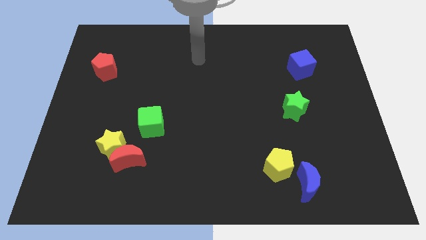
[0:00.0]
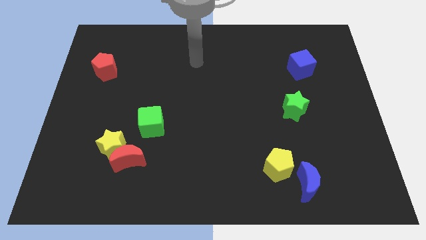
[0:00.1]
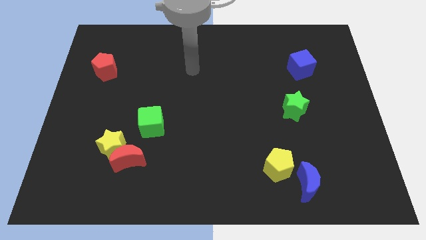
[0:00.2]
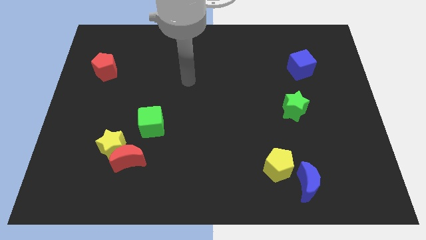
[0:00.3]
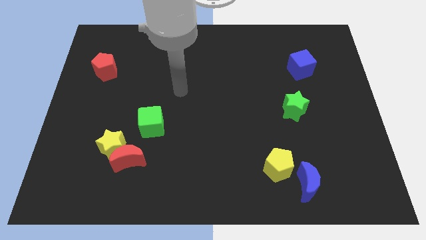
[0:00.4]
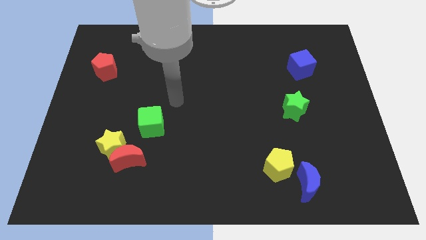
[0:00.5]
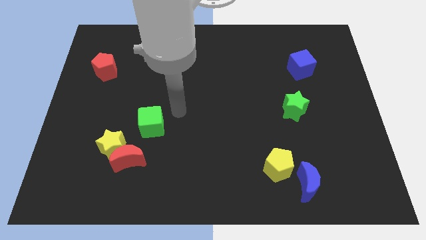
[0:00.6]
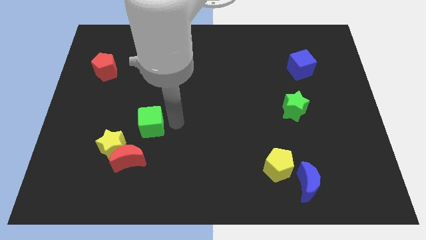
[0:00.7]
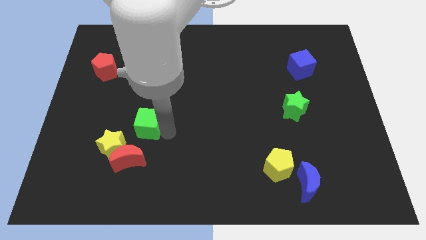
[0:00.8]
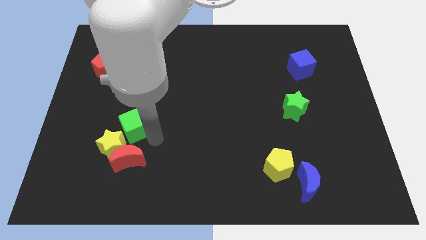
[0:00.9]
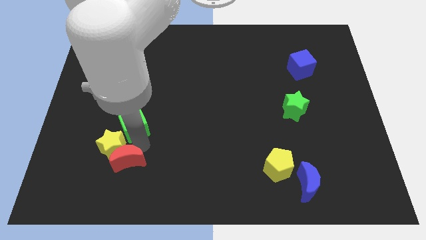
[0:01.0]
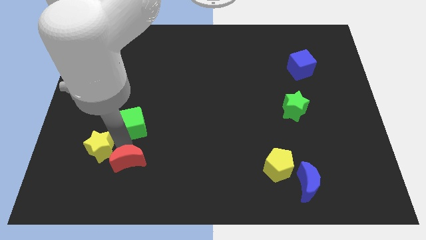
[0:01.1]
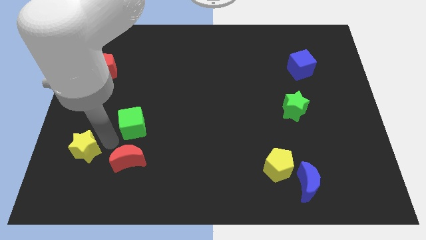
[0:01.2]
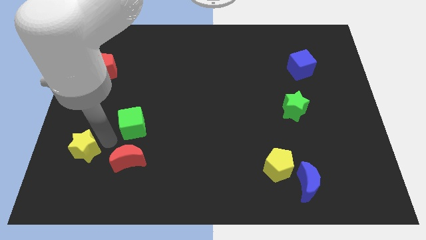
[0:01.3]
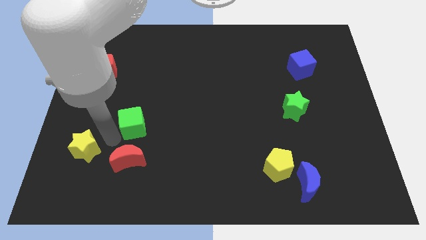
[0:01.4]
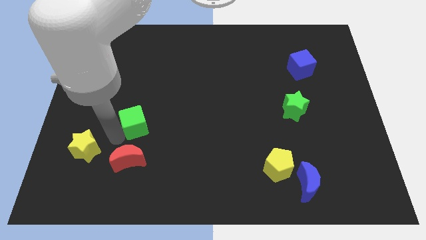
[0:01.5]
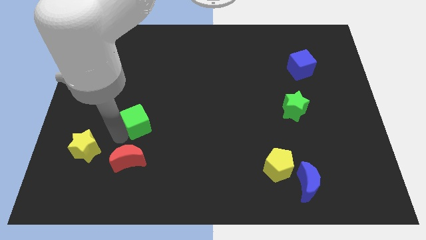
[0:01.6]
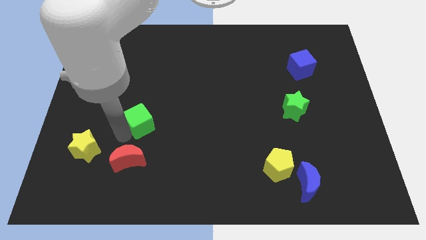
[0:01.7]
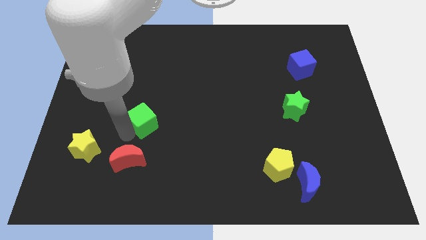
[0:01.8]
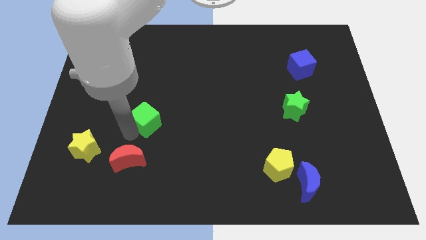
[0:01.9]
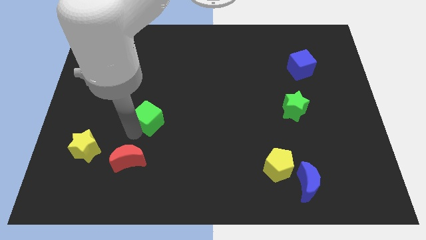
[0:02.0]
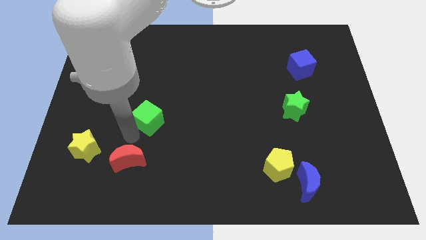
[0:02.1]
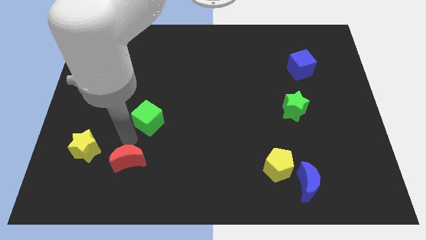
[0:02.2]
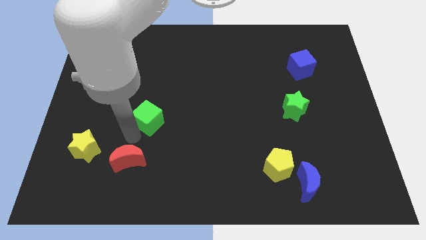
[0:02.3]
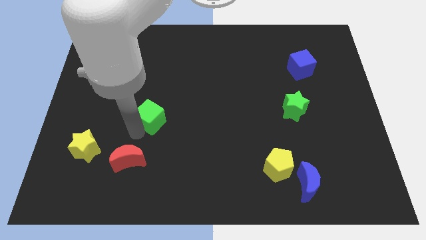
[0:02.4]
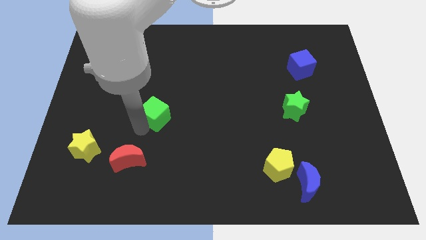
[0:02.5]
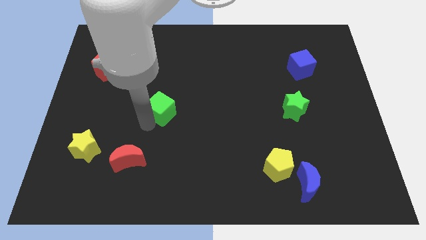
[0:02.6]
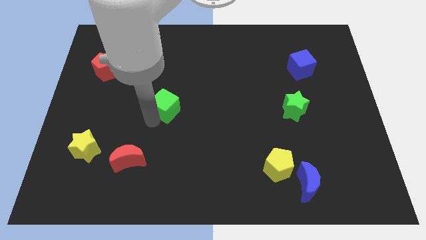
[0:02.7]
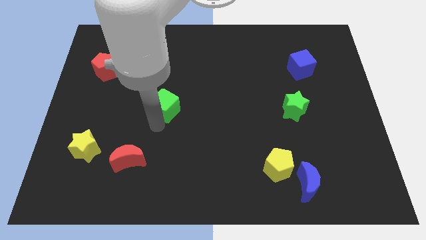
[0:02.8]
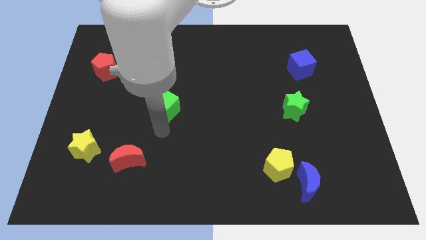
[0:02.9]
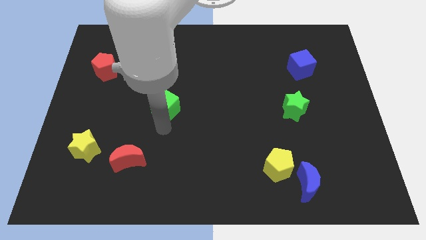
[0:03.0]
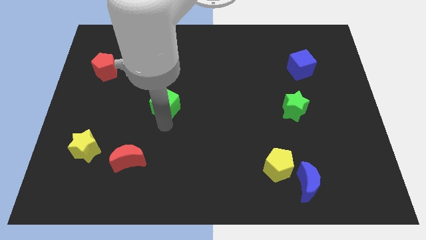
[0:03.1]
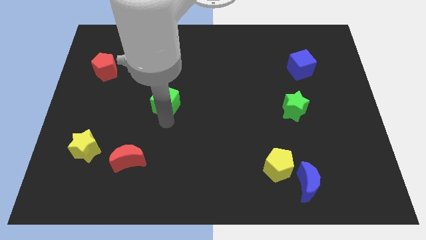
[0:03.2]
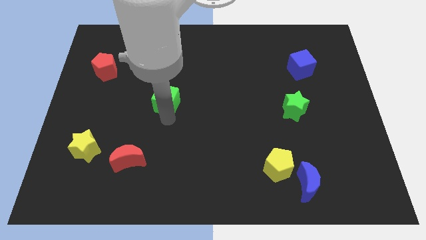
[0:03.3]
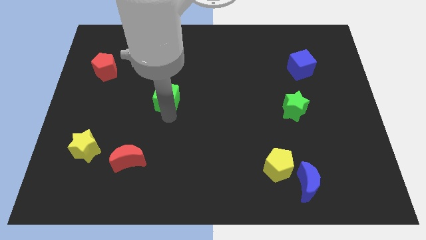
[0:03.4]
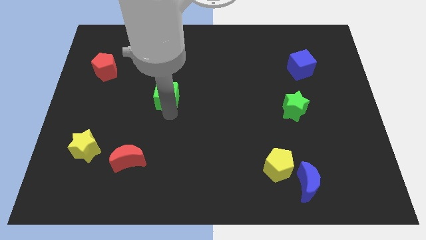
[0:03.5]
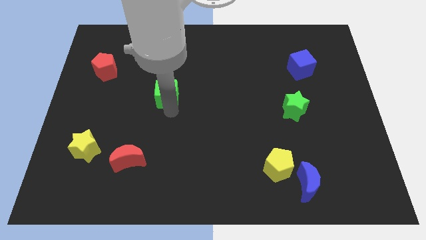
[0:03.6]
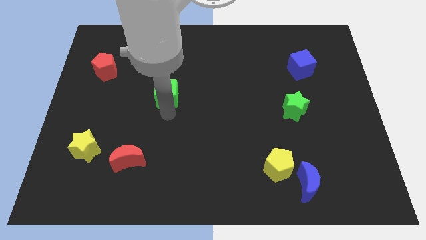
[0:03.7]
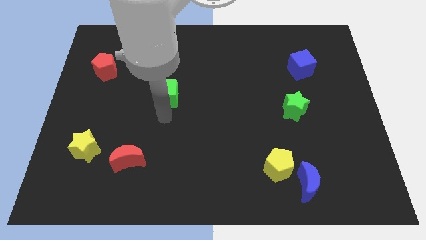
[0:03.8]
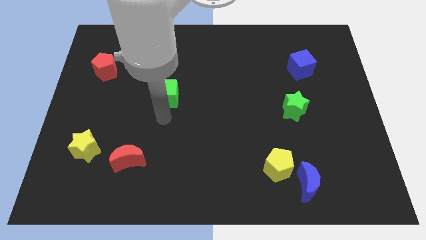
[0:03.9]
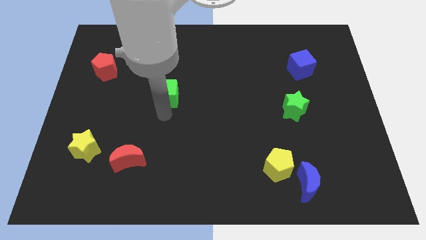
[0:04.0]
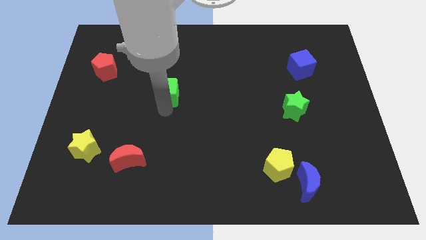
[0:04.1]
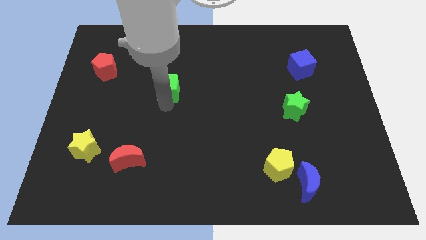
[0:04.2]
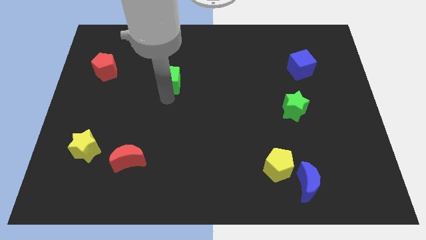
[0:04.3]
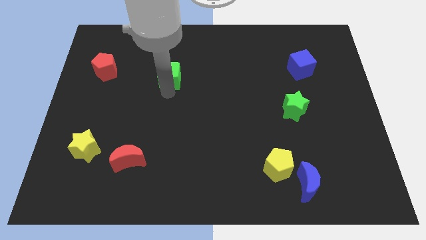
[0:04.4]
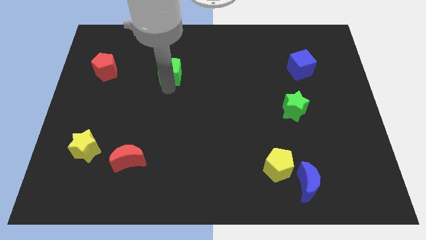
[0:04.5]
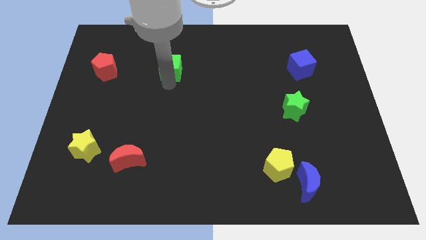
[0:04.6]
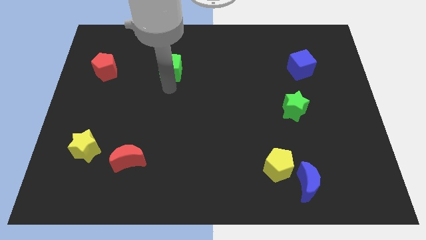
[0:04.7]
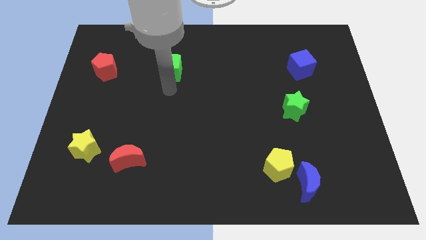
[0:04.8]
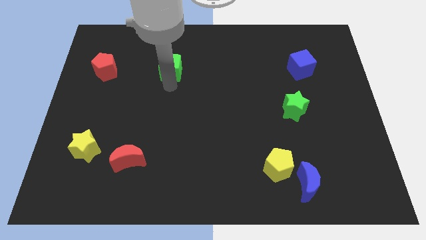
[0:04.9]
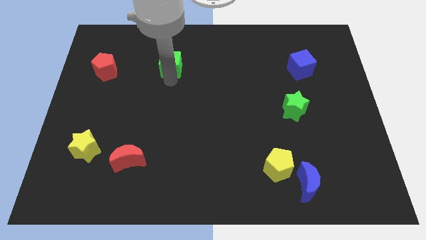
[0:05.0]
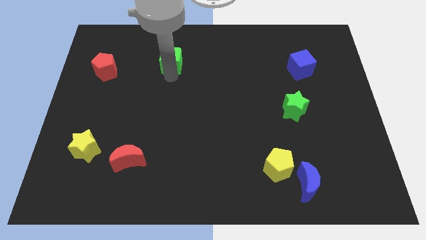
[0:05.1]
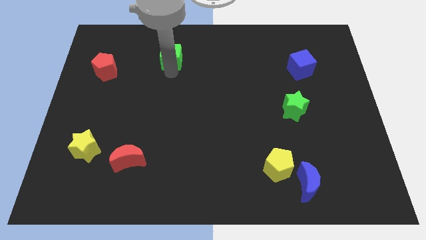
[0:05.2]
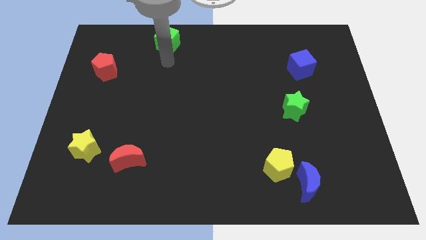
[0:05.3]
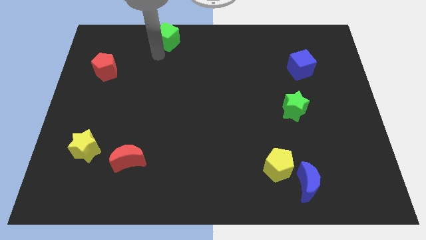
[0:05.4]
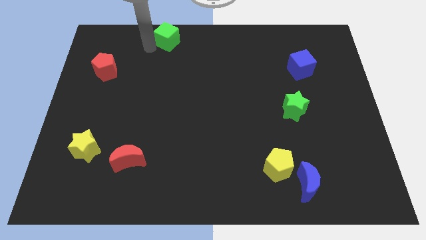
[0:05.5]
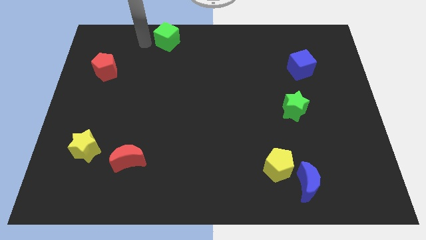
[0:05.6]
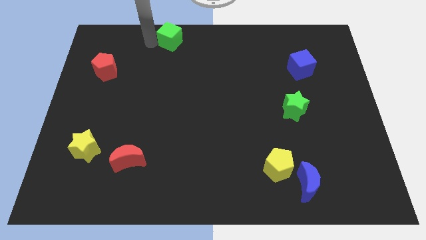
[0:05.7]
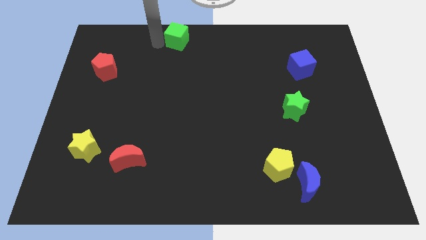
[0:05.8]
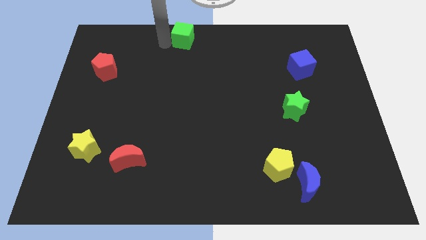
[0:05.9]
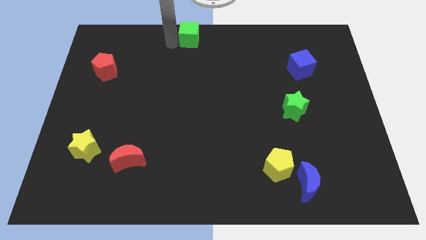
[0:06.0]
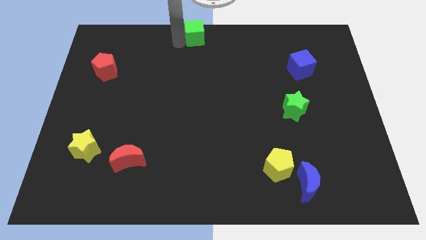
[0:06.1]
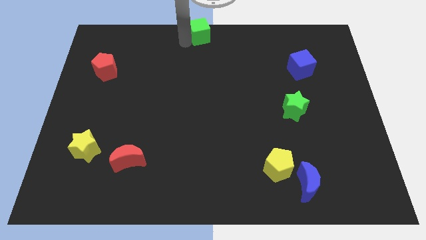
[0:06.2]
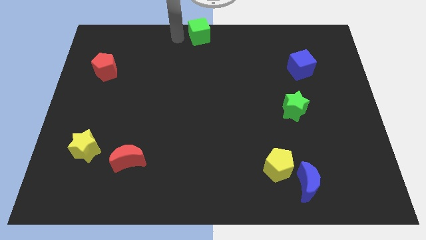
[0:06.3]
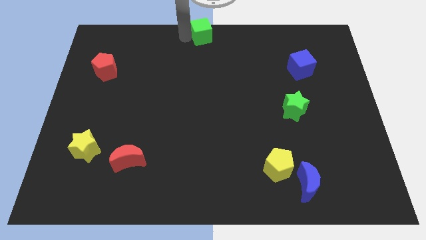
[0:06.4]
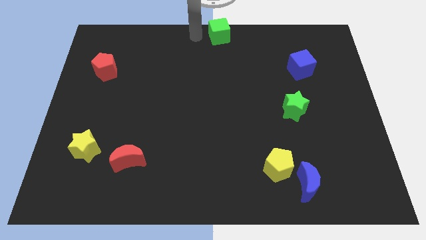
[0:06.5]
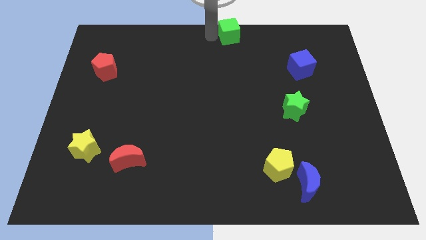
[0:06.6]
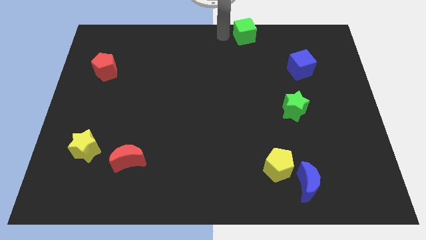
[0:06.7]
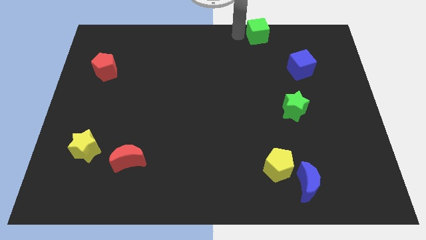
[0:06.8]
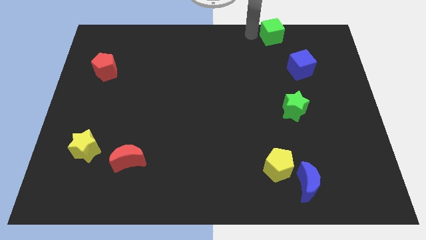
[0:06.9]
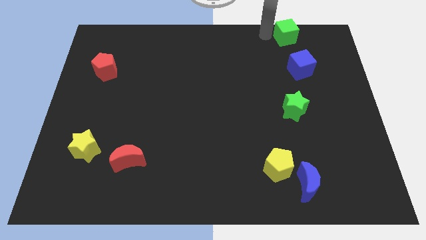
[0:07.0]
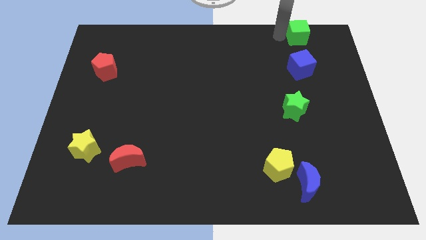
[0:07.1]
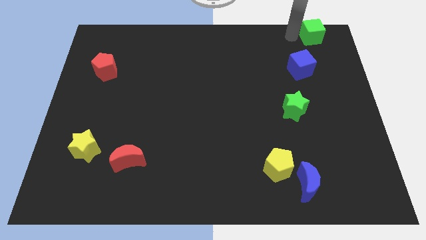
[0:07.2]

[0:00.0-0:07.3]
move the green cube to the top right of the board

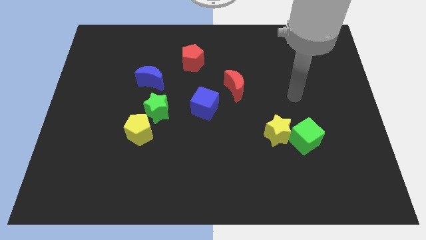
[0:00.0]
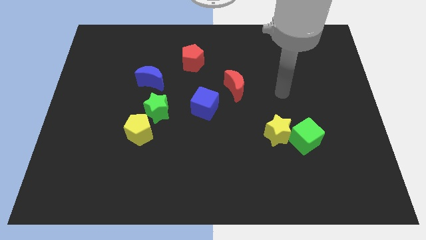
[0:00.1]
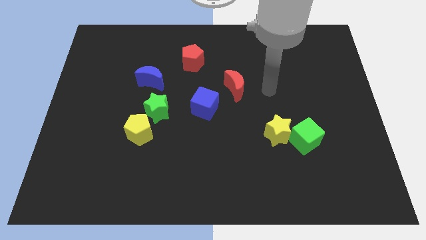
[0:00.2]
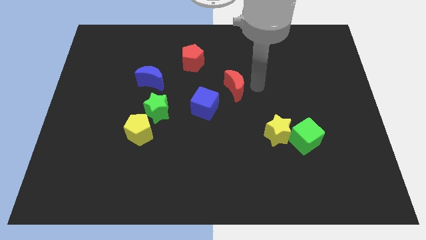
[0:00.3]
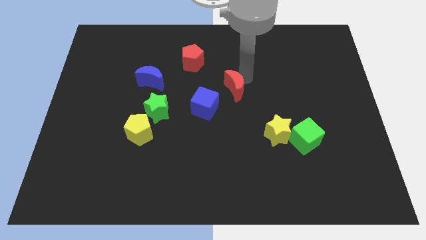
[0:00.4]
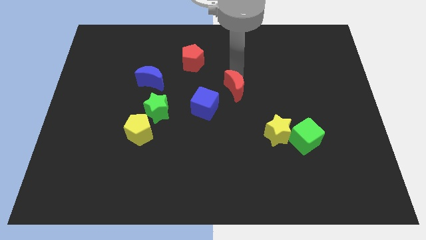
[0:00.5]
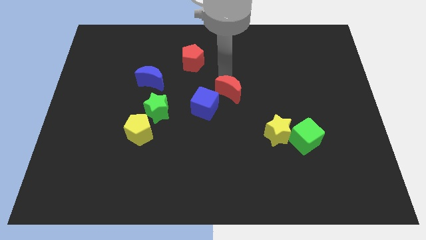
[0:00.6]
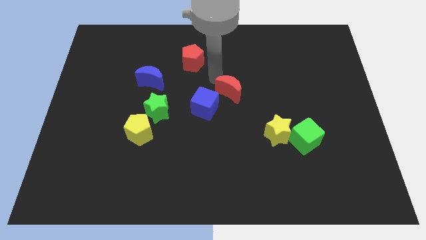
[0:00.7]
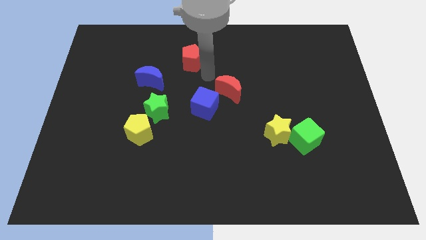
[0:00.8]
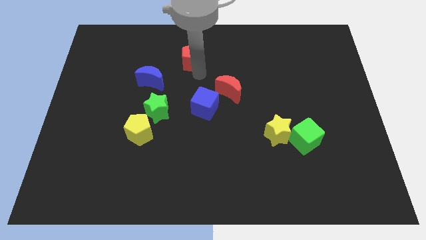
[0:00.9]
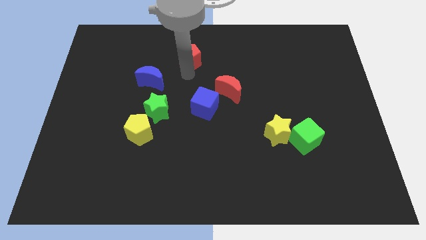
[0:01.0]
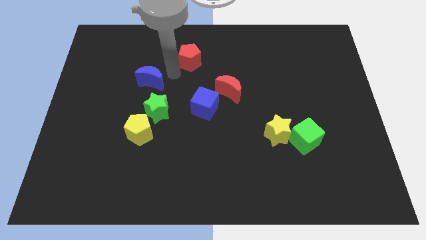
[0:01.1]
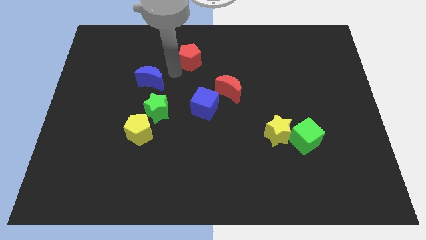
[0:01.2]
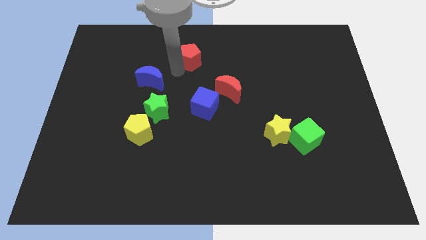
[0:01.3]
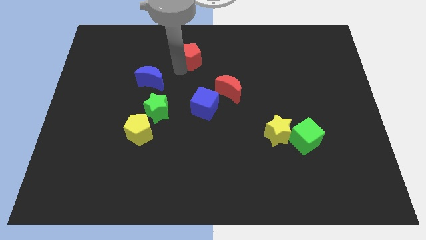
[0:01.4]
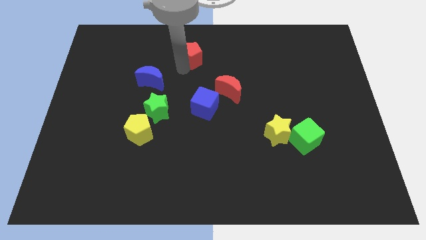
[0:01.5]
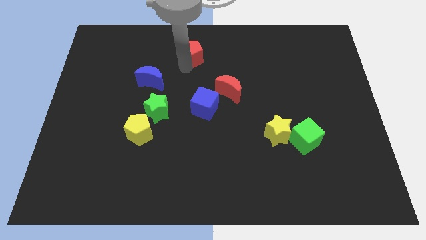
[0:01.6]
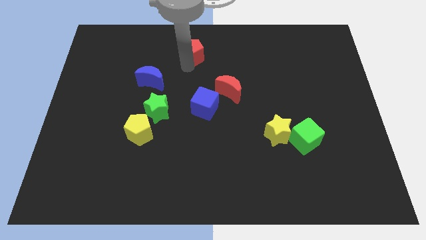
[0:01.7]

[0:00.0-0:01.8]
put the red pentagon to the top side
